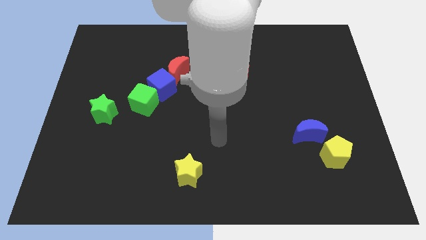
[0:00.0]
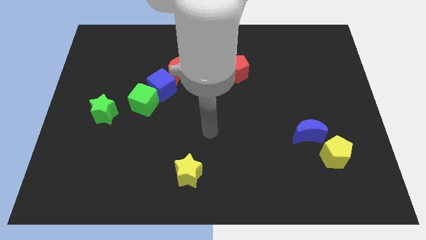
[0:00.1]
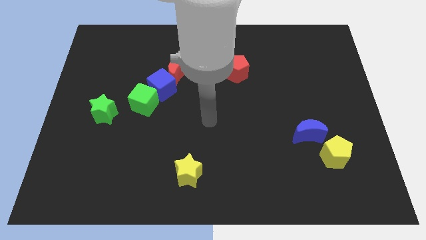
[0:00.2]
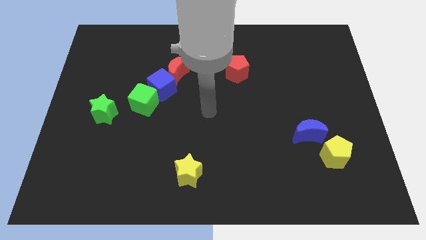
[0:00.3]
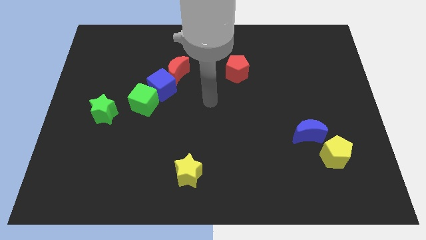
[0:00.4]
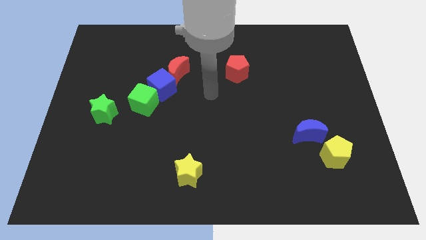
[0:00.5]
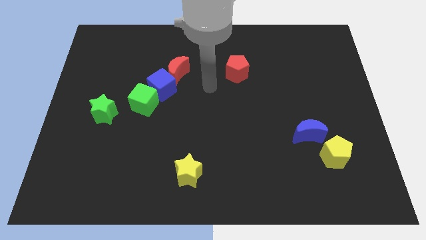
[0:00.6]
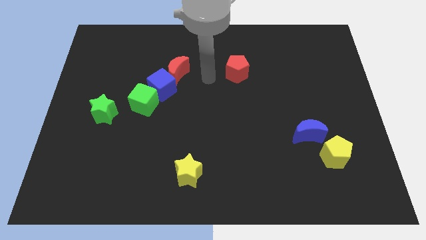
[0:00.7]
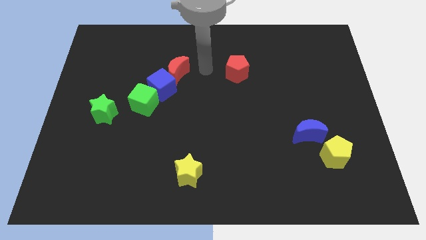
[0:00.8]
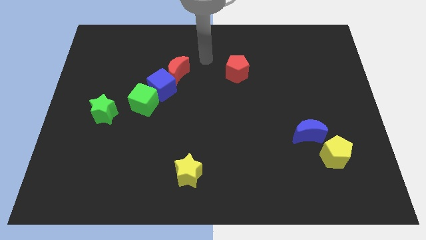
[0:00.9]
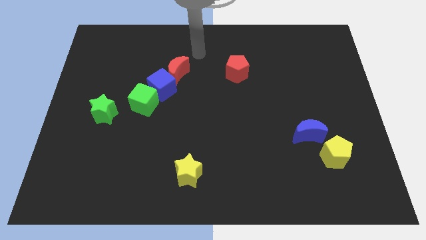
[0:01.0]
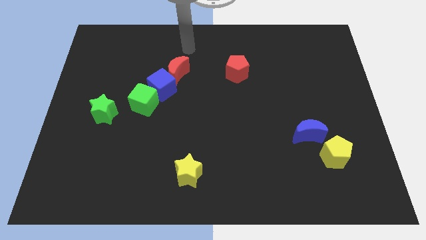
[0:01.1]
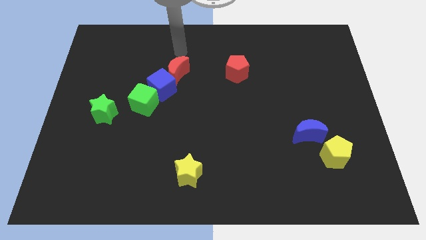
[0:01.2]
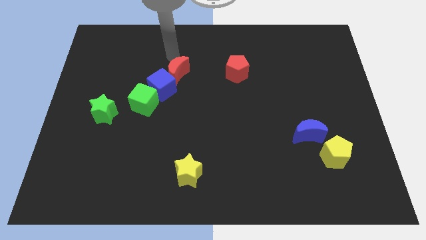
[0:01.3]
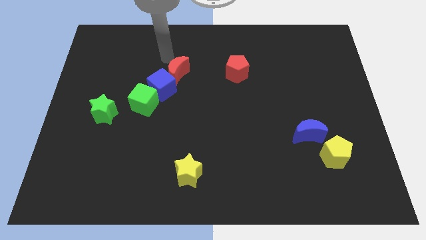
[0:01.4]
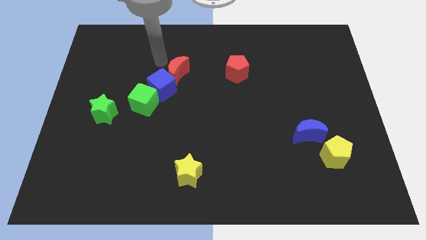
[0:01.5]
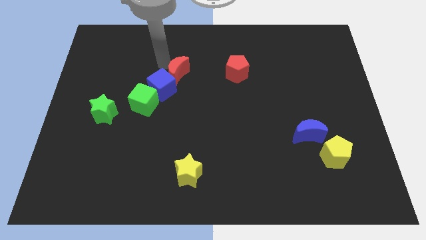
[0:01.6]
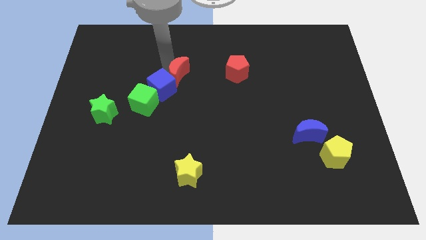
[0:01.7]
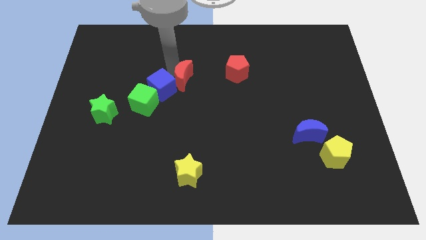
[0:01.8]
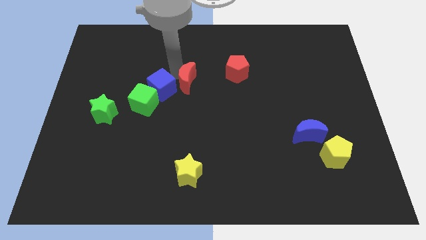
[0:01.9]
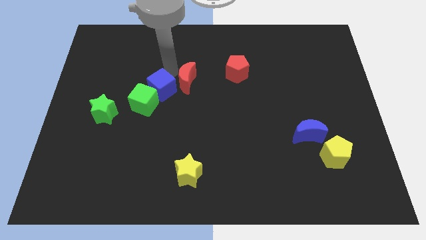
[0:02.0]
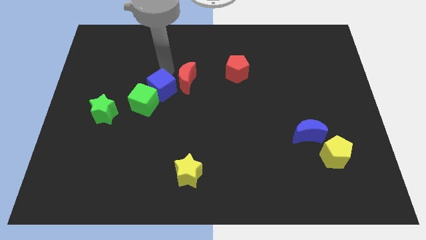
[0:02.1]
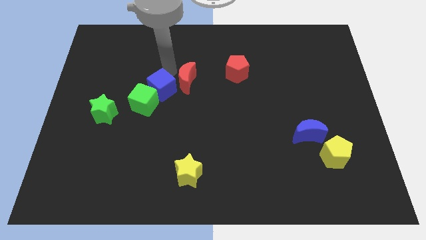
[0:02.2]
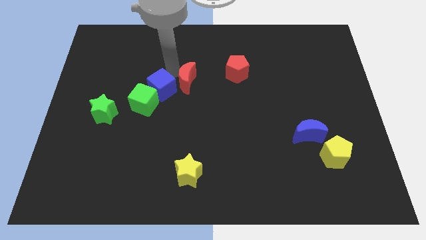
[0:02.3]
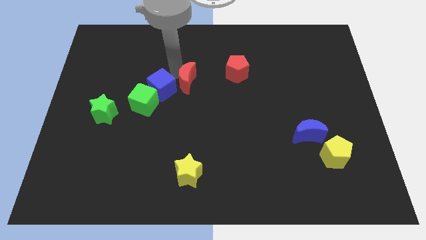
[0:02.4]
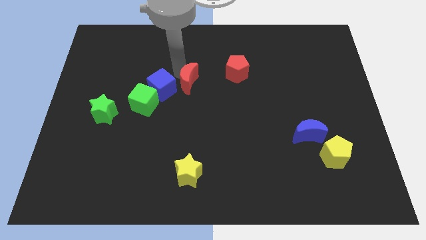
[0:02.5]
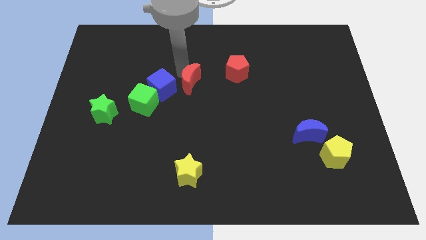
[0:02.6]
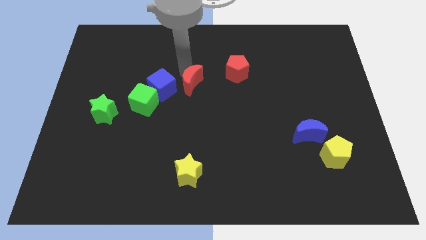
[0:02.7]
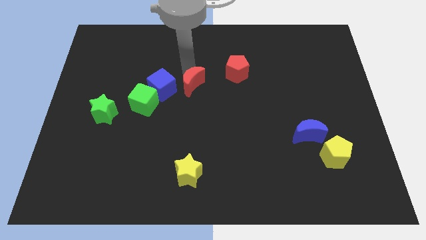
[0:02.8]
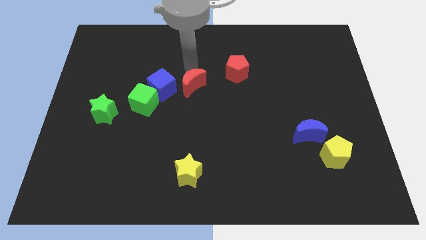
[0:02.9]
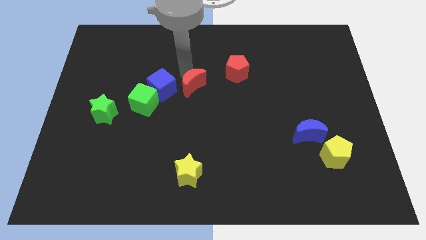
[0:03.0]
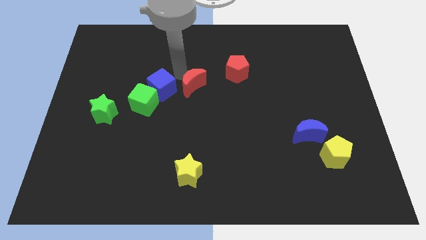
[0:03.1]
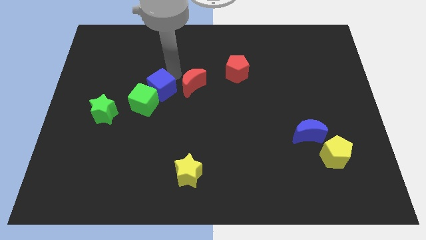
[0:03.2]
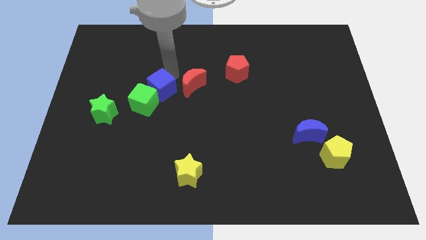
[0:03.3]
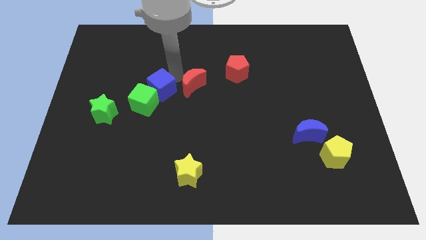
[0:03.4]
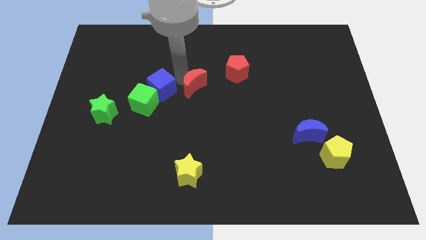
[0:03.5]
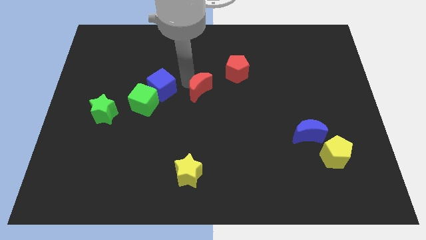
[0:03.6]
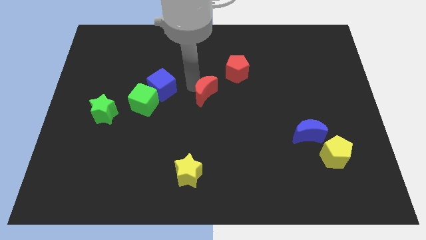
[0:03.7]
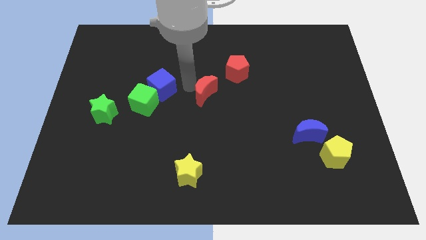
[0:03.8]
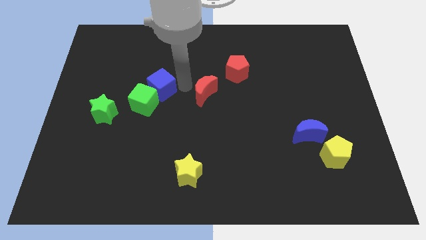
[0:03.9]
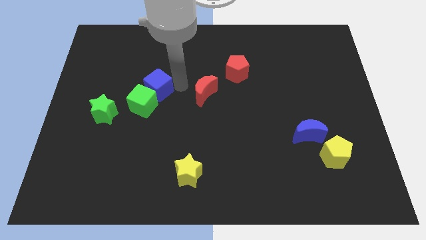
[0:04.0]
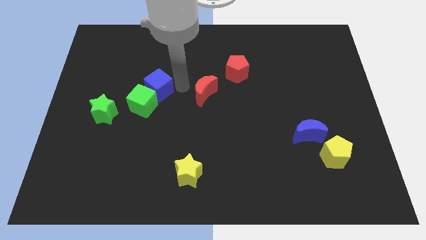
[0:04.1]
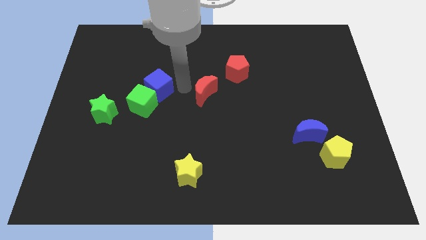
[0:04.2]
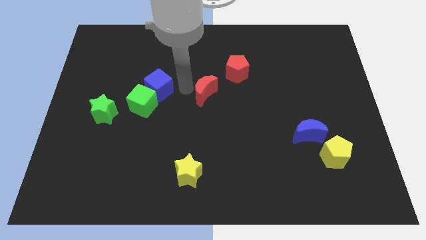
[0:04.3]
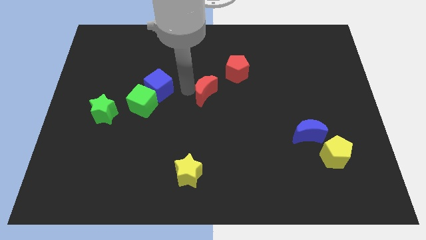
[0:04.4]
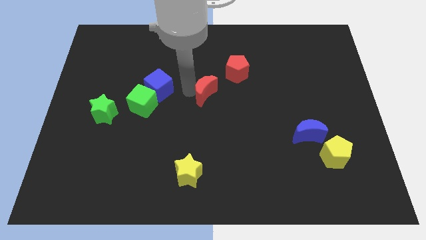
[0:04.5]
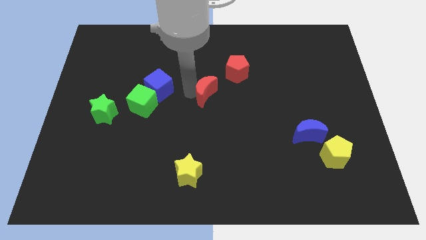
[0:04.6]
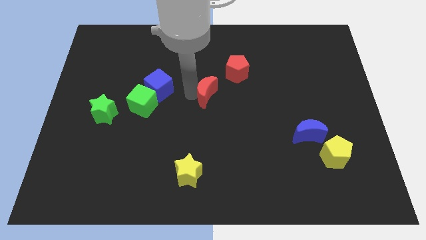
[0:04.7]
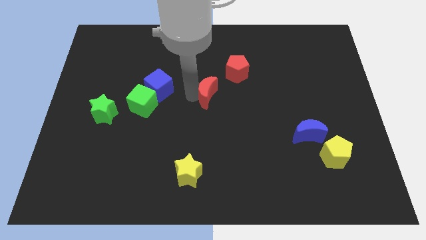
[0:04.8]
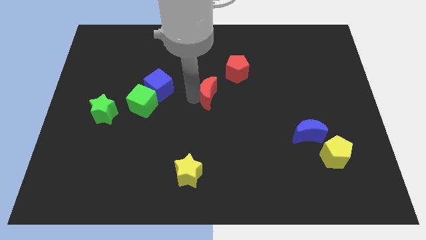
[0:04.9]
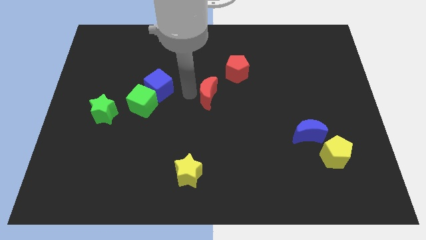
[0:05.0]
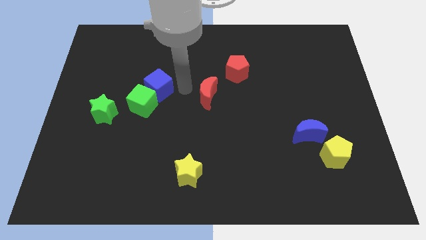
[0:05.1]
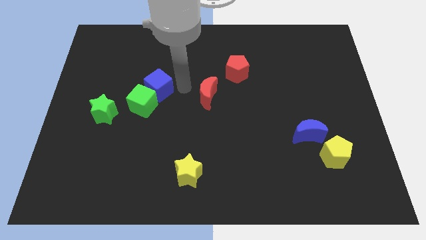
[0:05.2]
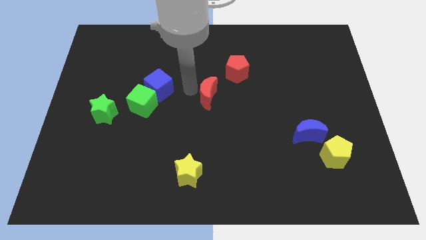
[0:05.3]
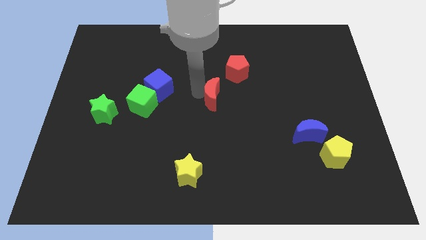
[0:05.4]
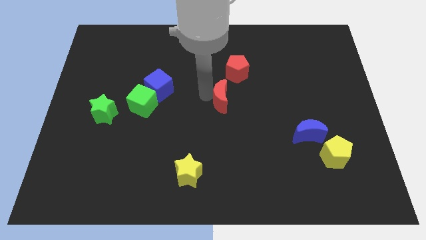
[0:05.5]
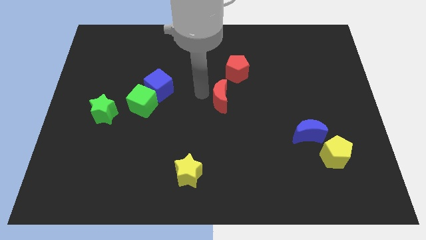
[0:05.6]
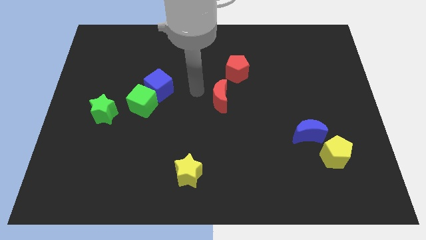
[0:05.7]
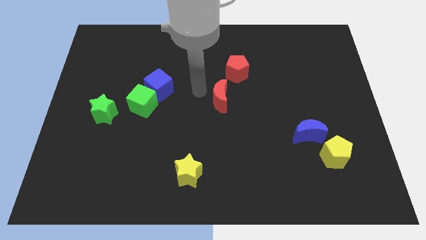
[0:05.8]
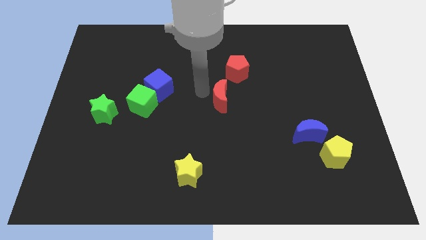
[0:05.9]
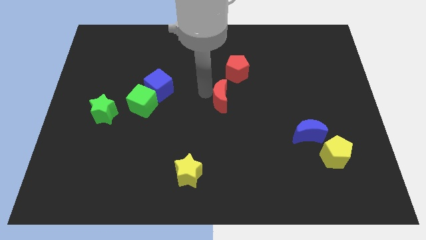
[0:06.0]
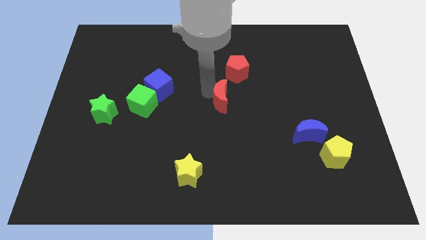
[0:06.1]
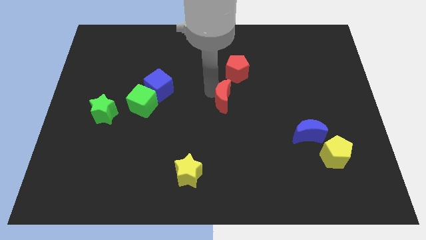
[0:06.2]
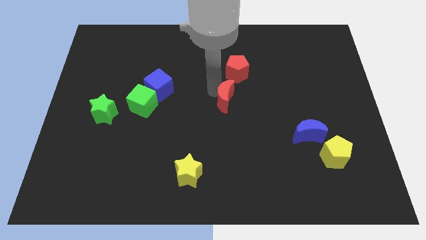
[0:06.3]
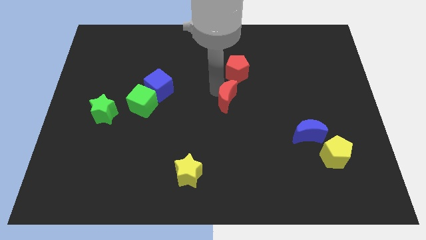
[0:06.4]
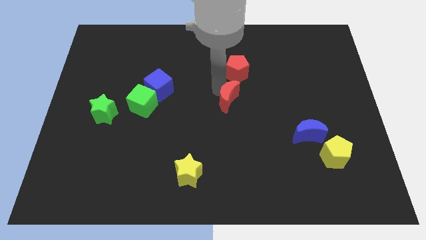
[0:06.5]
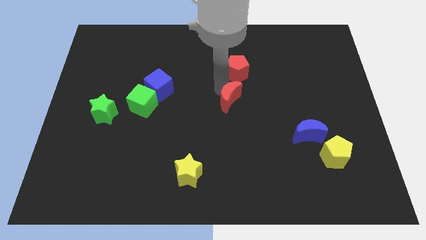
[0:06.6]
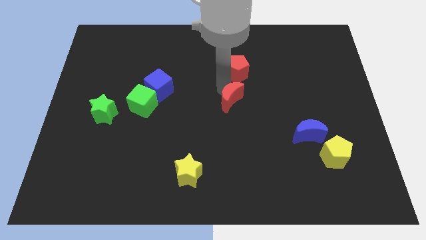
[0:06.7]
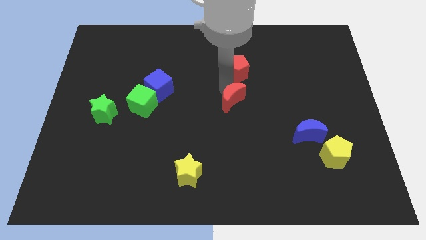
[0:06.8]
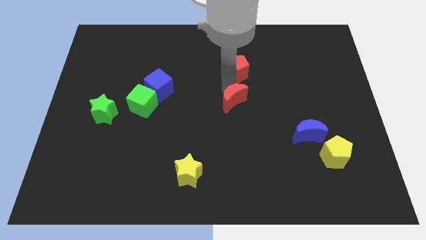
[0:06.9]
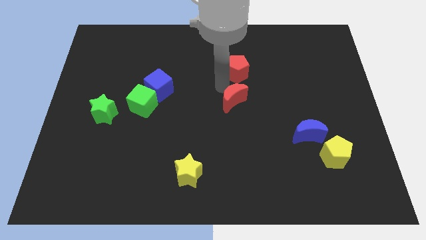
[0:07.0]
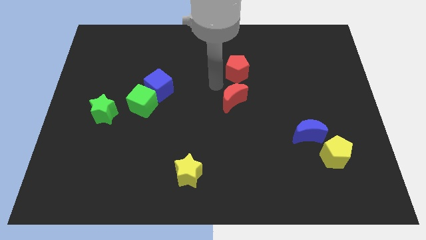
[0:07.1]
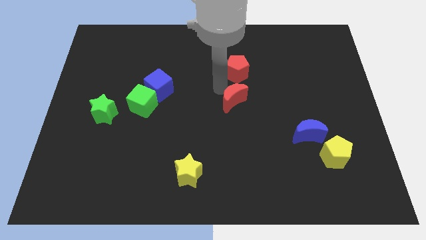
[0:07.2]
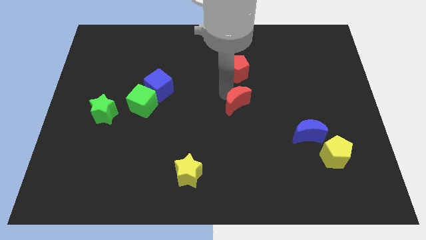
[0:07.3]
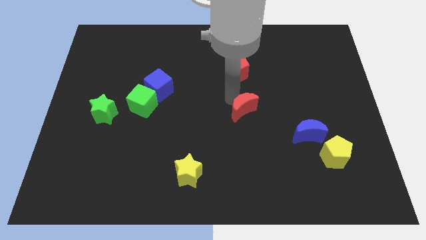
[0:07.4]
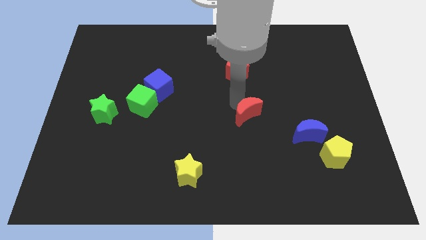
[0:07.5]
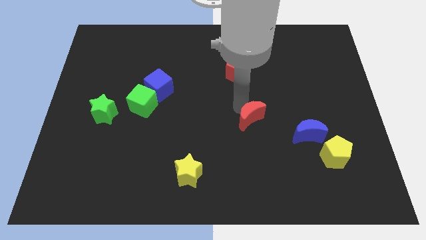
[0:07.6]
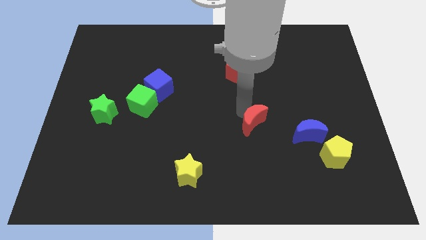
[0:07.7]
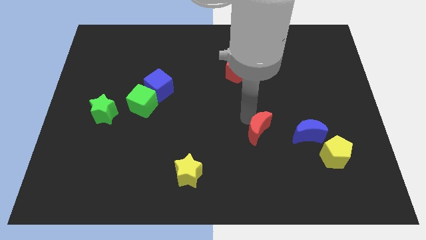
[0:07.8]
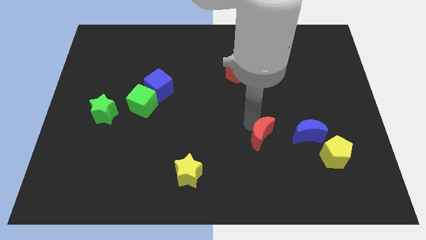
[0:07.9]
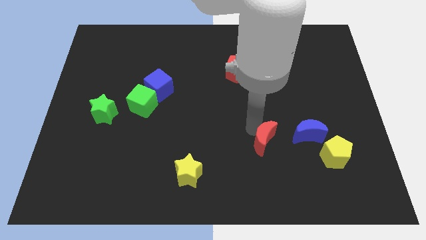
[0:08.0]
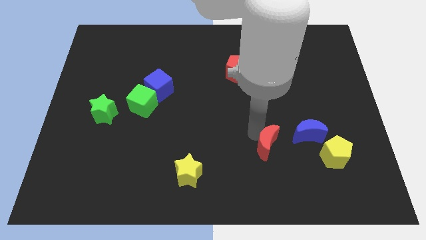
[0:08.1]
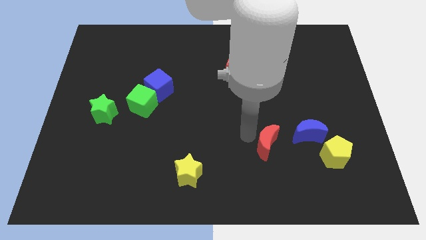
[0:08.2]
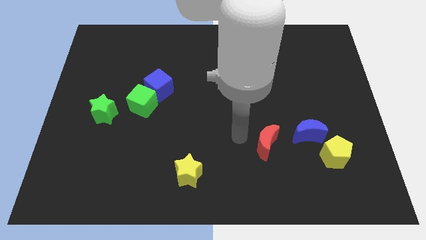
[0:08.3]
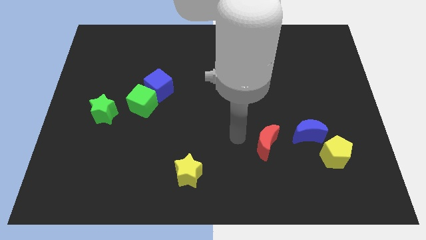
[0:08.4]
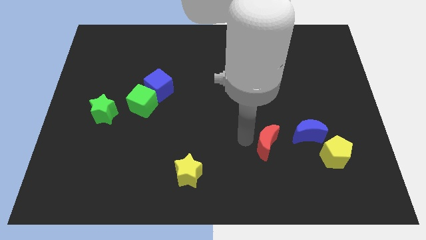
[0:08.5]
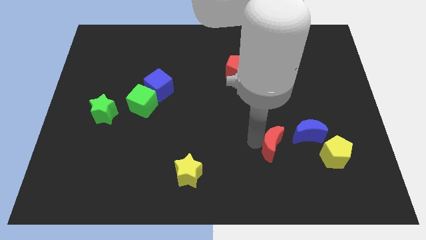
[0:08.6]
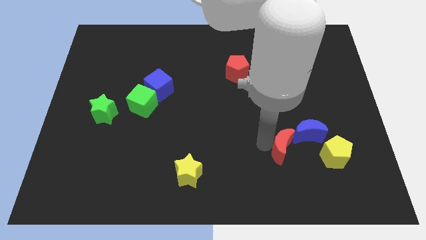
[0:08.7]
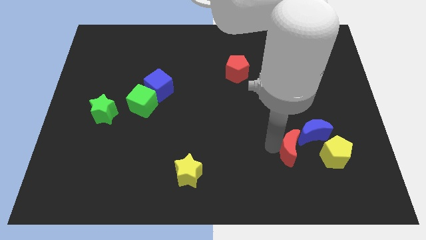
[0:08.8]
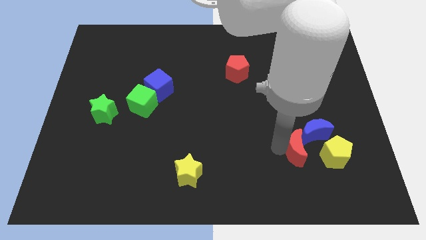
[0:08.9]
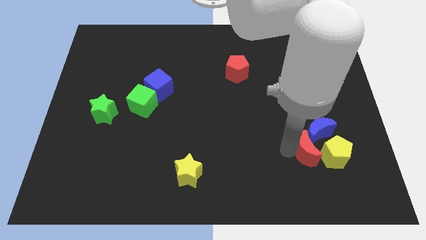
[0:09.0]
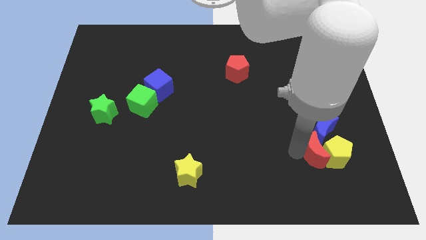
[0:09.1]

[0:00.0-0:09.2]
slide the red moon to the yellow pentagon
